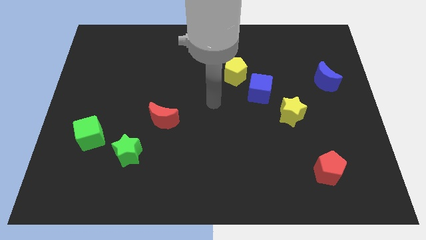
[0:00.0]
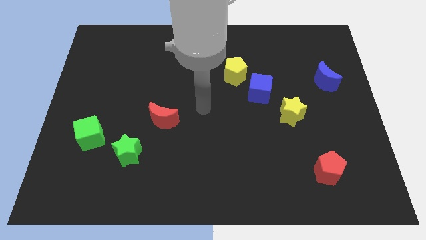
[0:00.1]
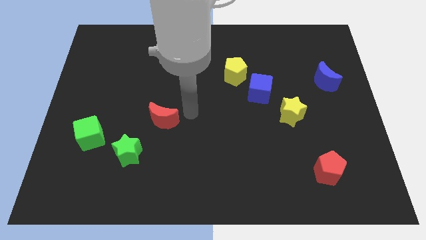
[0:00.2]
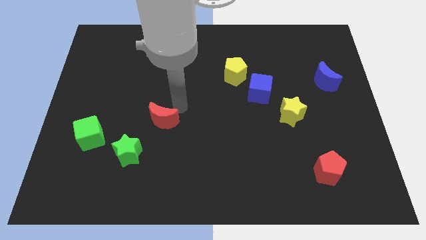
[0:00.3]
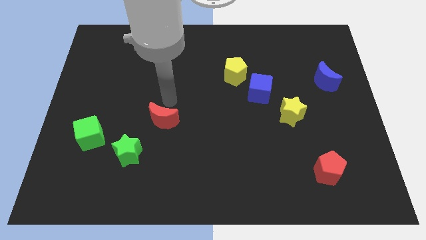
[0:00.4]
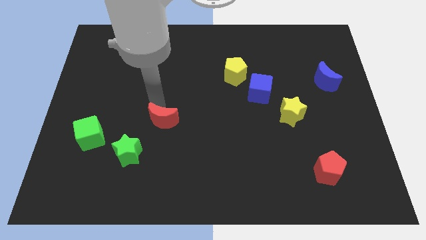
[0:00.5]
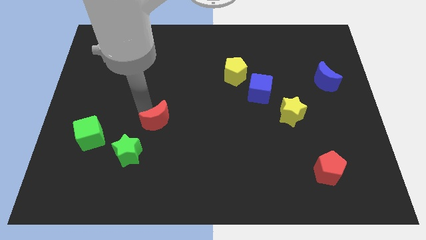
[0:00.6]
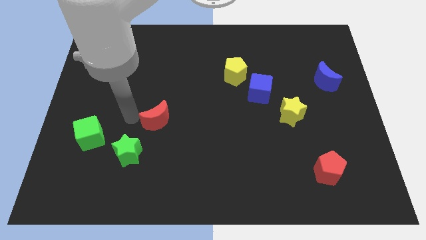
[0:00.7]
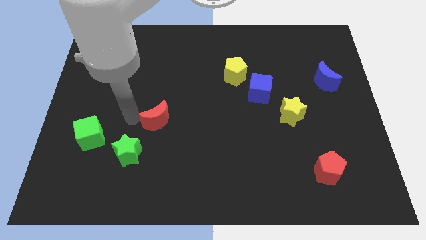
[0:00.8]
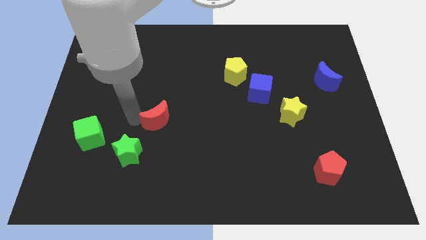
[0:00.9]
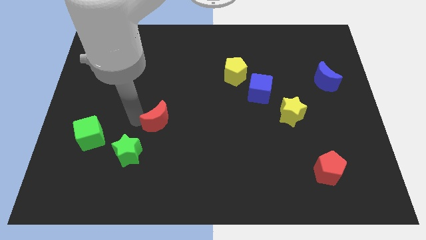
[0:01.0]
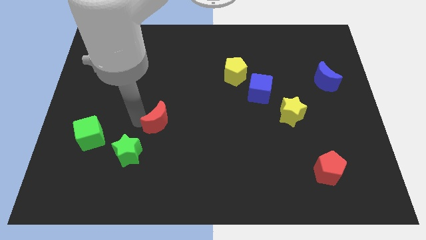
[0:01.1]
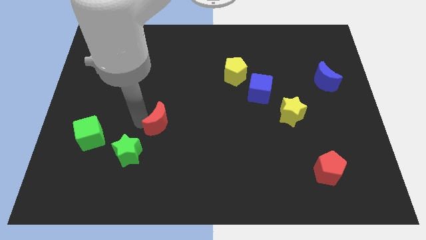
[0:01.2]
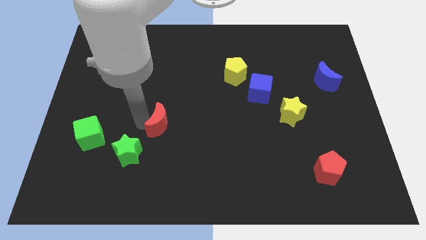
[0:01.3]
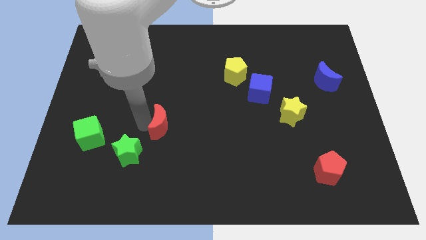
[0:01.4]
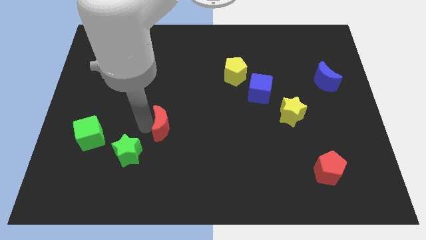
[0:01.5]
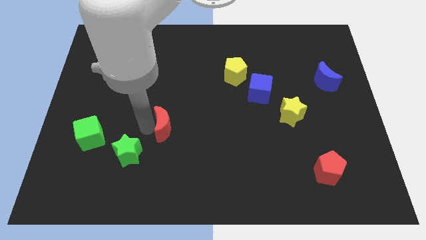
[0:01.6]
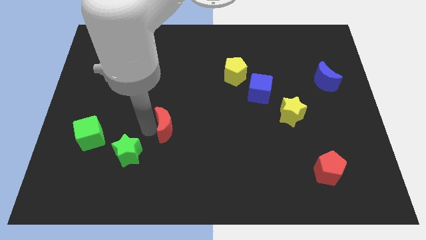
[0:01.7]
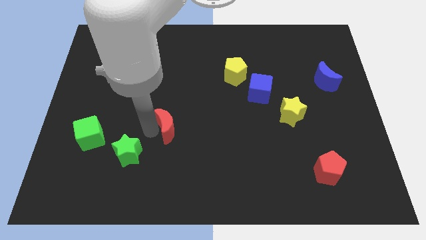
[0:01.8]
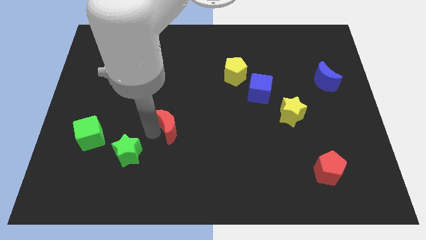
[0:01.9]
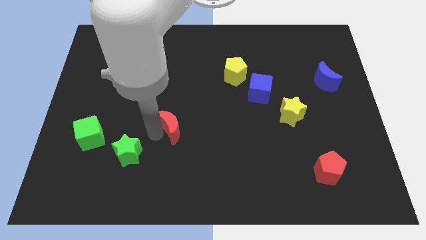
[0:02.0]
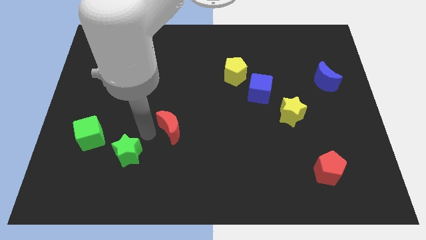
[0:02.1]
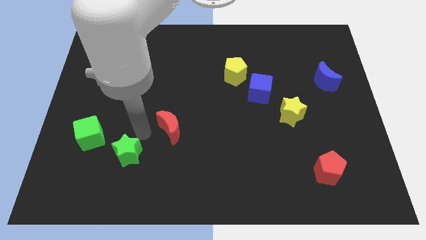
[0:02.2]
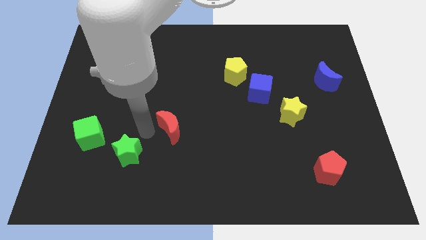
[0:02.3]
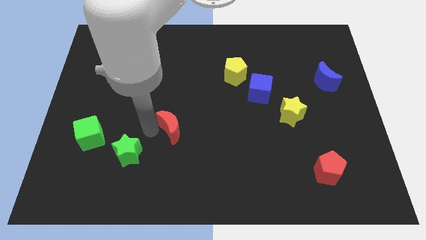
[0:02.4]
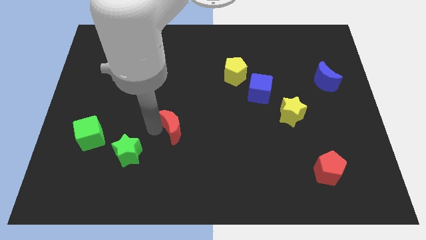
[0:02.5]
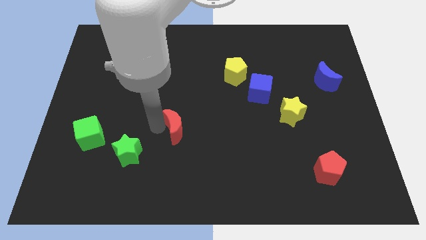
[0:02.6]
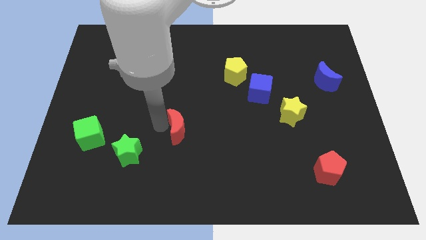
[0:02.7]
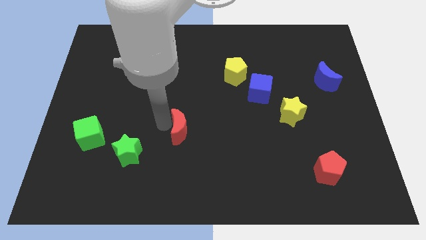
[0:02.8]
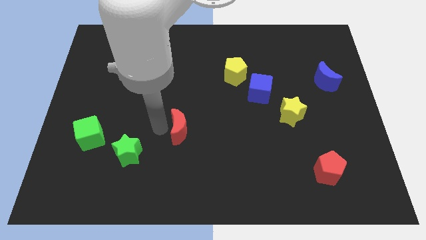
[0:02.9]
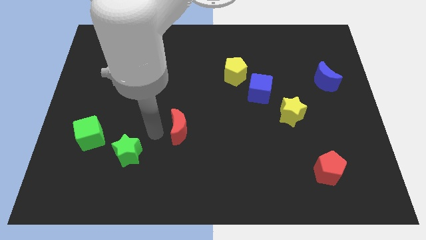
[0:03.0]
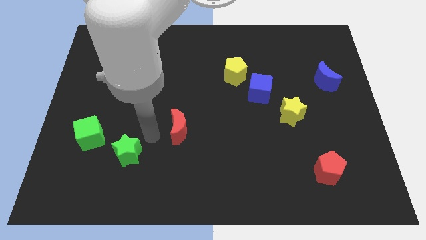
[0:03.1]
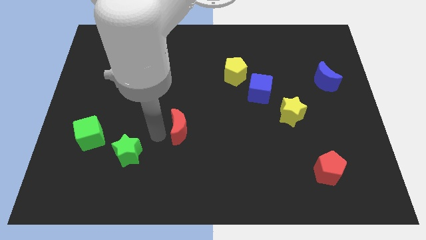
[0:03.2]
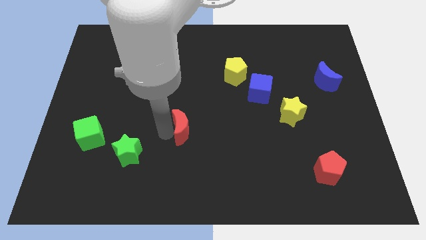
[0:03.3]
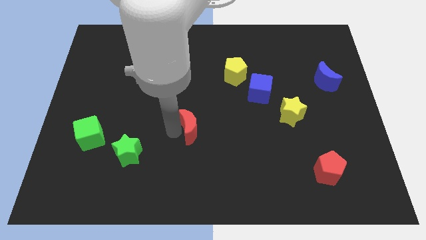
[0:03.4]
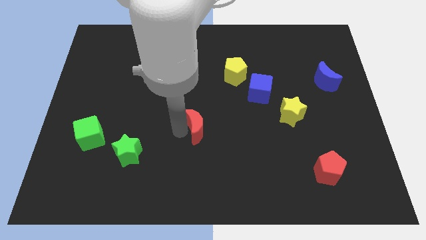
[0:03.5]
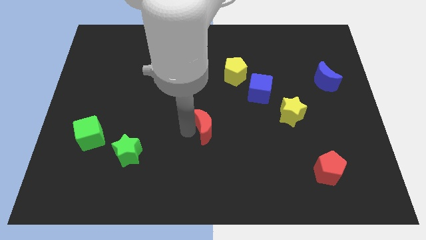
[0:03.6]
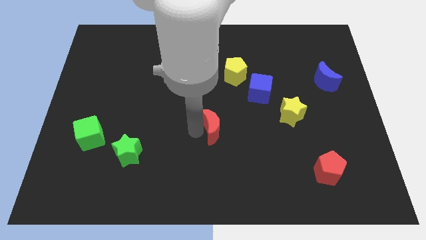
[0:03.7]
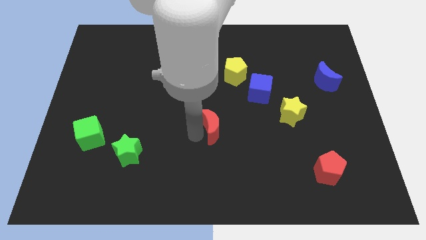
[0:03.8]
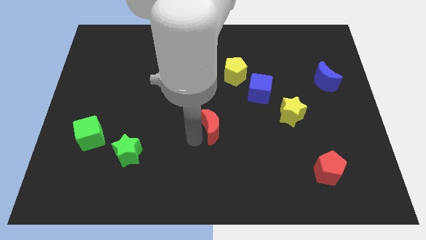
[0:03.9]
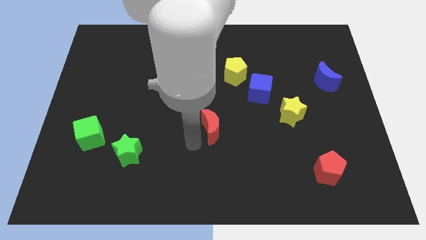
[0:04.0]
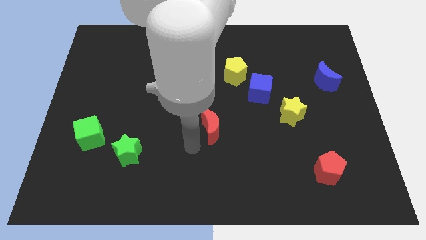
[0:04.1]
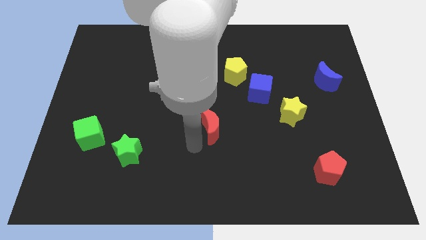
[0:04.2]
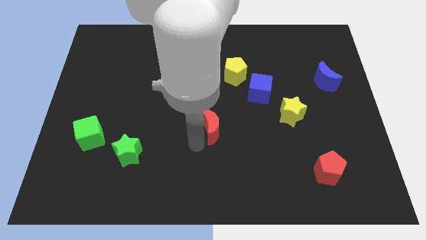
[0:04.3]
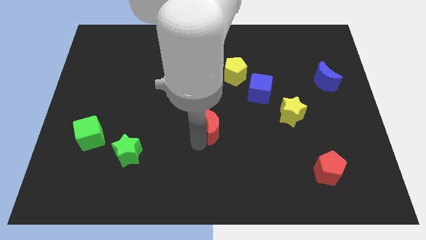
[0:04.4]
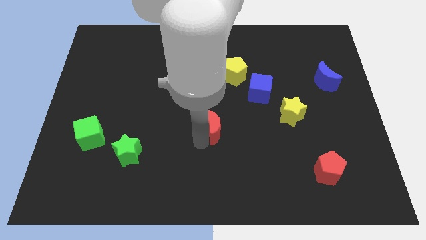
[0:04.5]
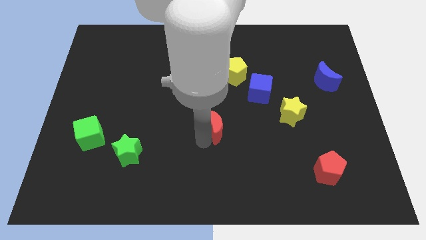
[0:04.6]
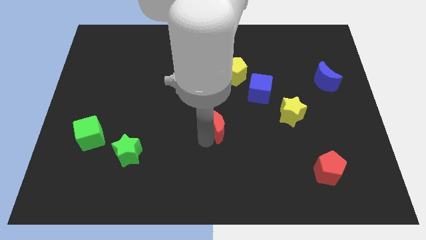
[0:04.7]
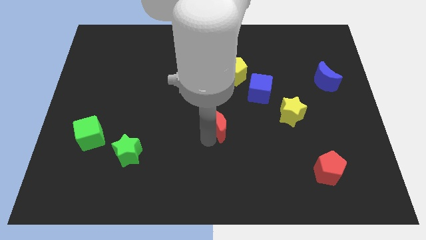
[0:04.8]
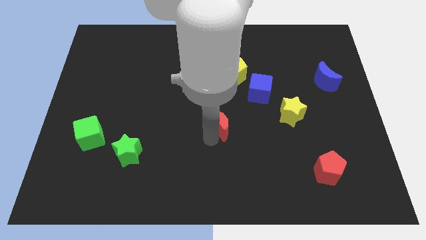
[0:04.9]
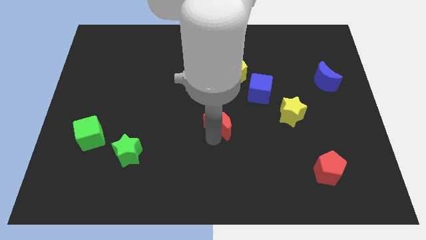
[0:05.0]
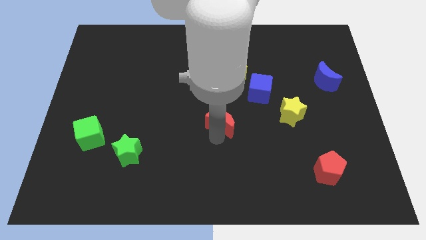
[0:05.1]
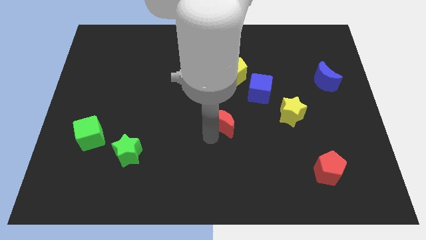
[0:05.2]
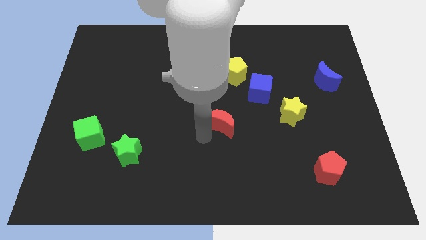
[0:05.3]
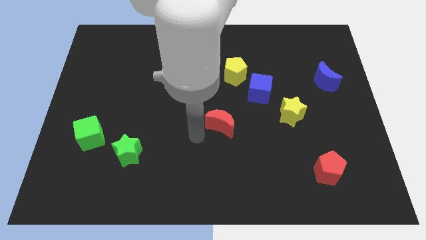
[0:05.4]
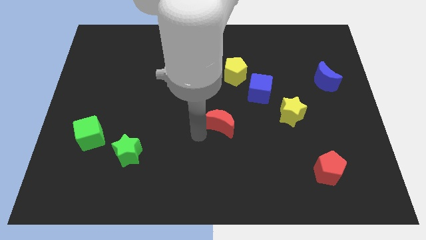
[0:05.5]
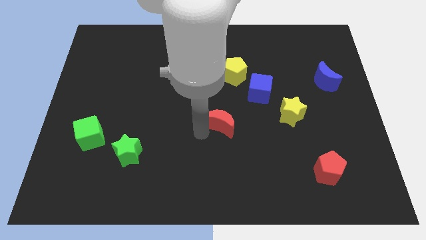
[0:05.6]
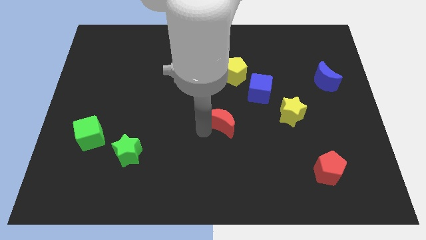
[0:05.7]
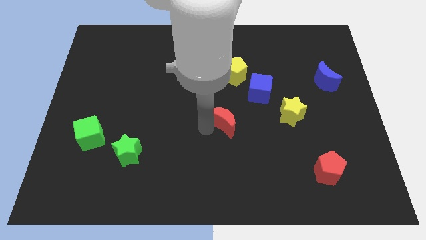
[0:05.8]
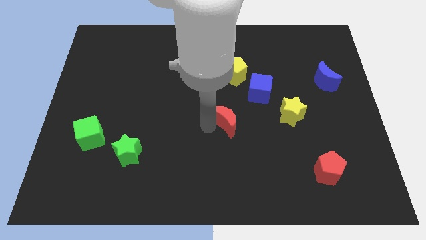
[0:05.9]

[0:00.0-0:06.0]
move the red moon just left of the yellow star

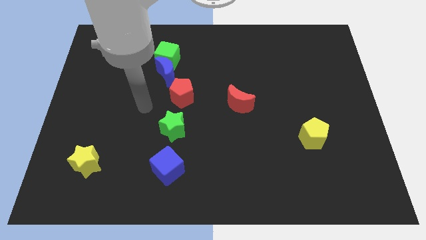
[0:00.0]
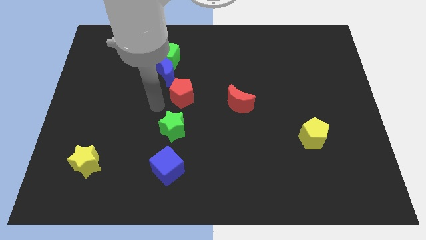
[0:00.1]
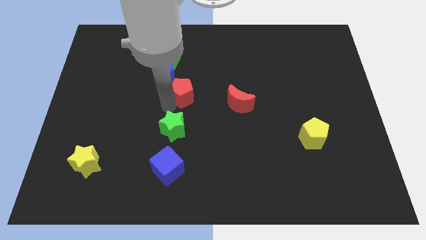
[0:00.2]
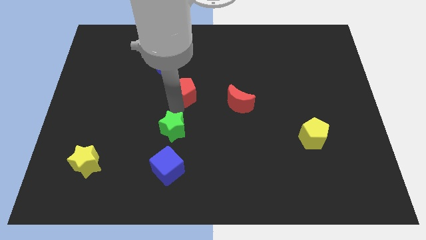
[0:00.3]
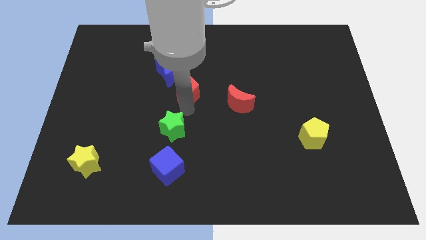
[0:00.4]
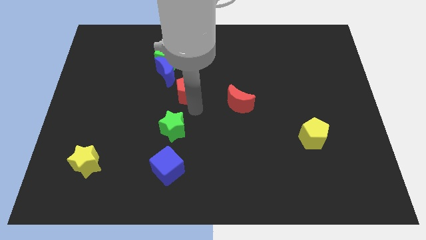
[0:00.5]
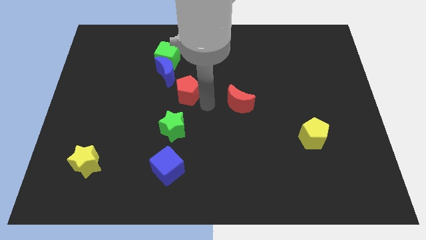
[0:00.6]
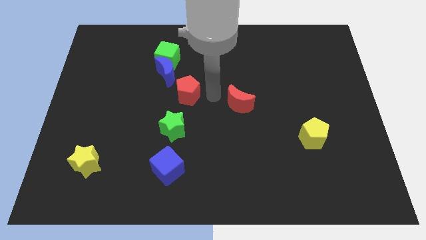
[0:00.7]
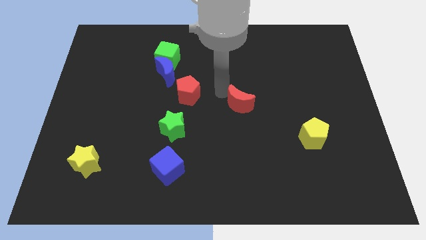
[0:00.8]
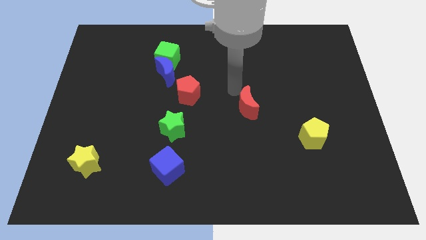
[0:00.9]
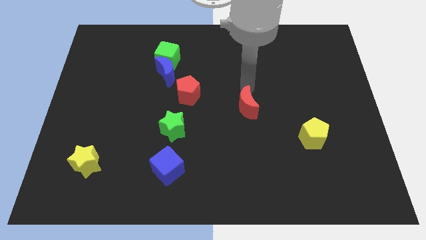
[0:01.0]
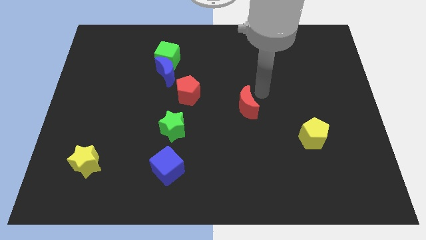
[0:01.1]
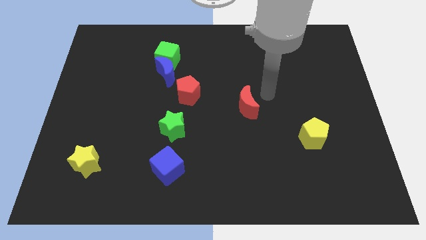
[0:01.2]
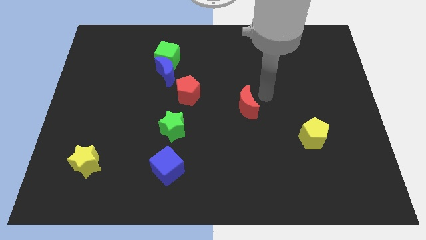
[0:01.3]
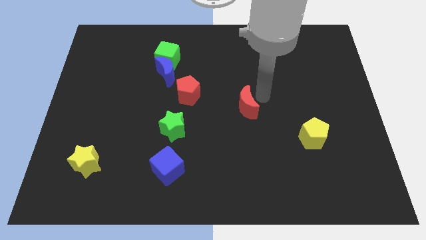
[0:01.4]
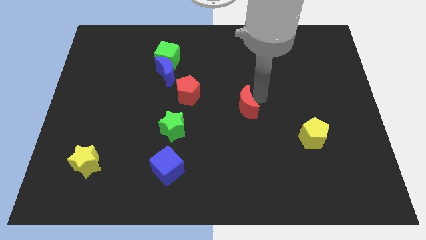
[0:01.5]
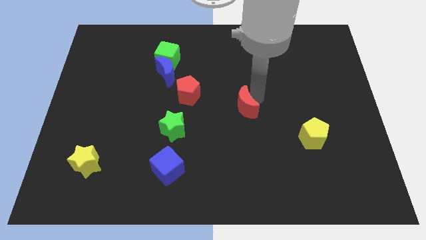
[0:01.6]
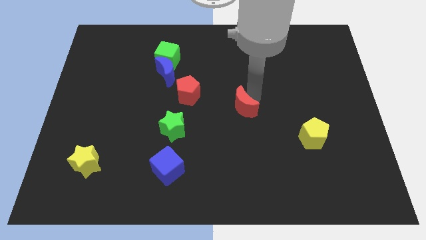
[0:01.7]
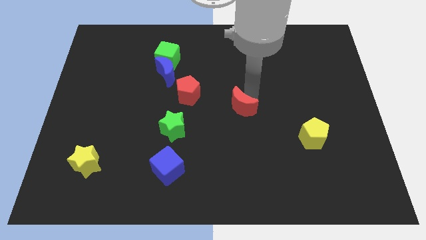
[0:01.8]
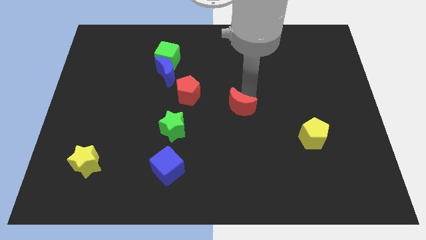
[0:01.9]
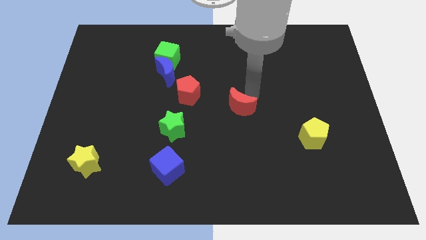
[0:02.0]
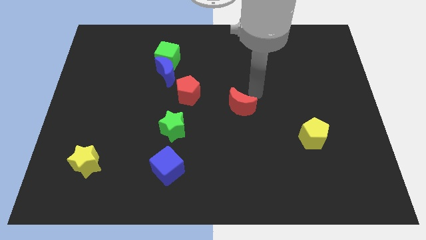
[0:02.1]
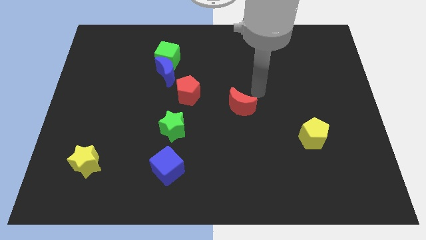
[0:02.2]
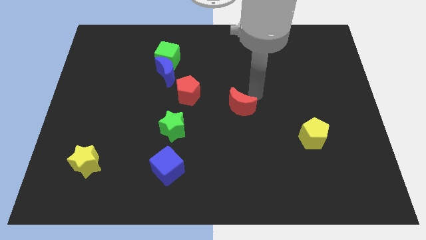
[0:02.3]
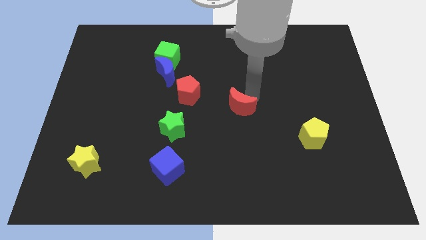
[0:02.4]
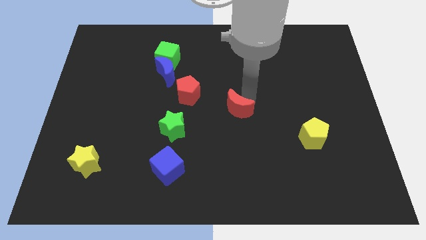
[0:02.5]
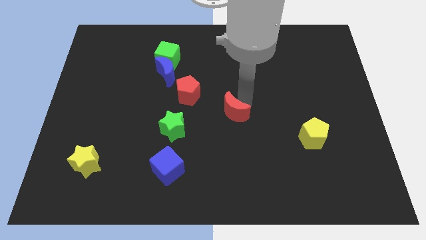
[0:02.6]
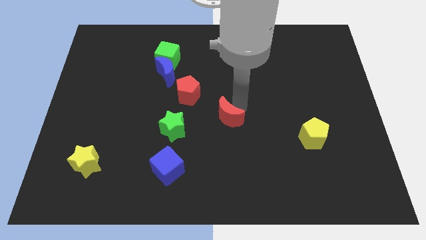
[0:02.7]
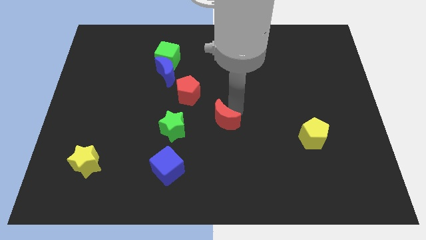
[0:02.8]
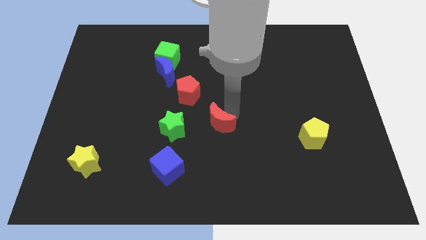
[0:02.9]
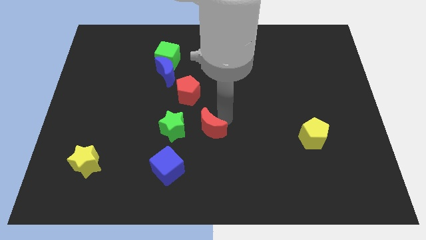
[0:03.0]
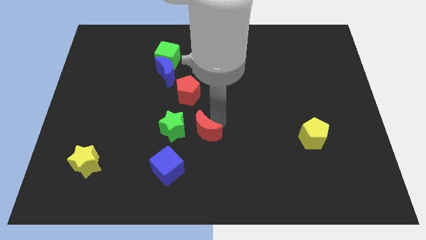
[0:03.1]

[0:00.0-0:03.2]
put the red moon diagonally down and to the right of the green star
